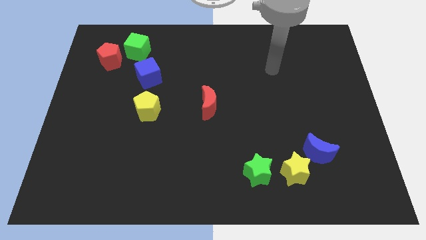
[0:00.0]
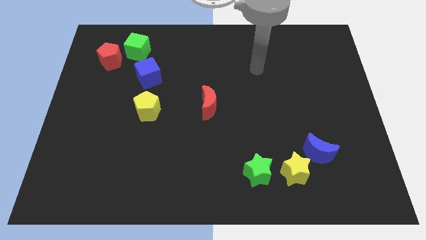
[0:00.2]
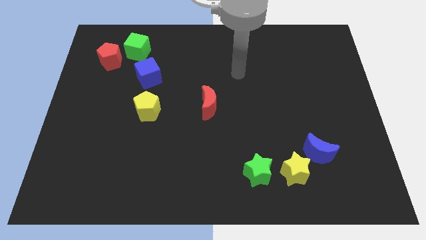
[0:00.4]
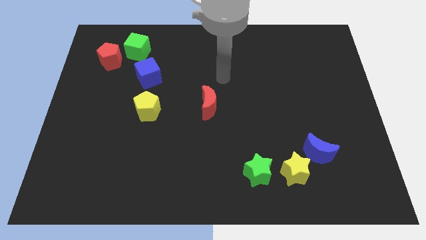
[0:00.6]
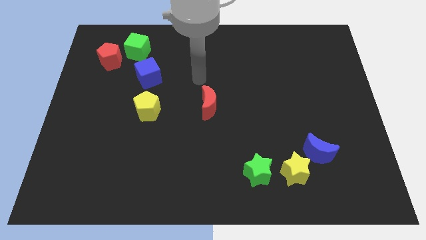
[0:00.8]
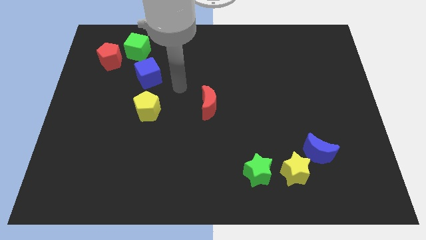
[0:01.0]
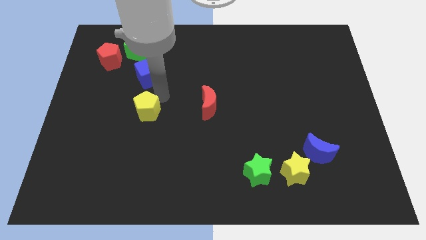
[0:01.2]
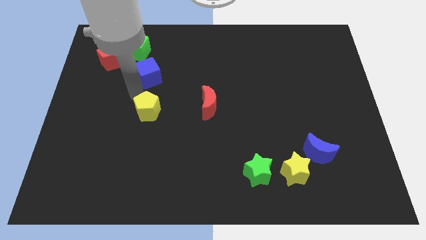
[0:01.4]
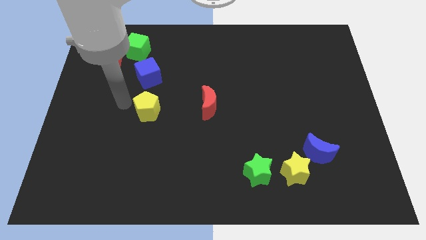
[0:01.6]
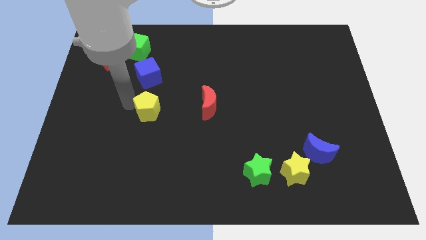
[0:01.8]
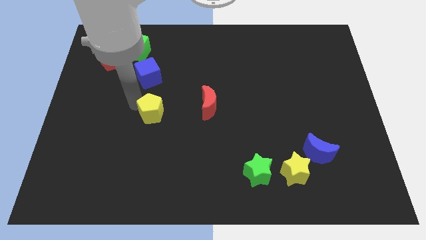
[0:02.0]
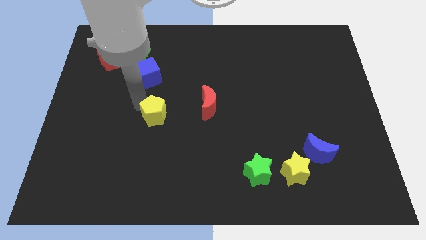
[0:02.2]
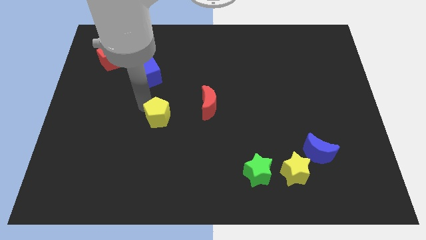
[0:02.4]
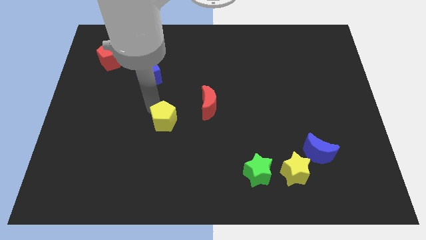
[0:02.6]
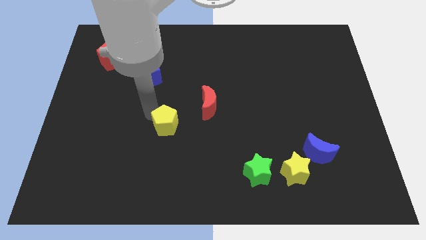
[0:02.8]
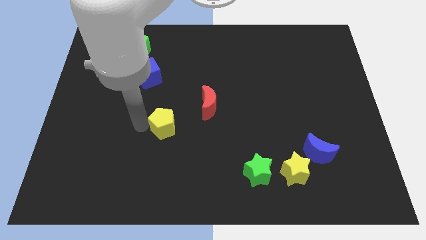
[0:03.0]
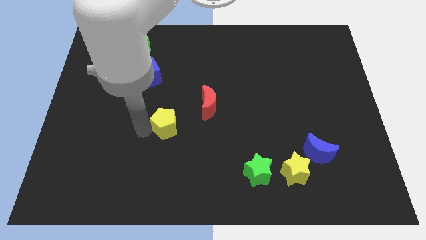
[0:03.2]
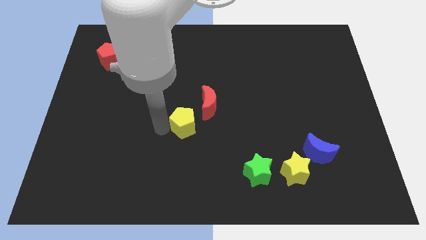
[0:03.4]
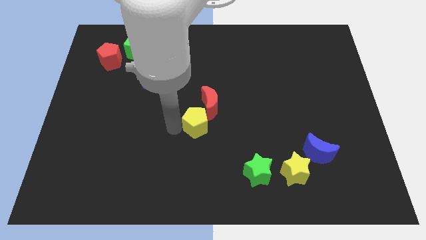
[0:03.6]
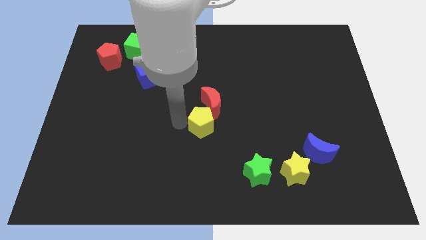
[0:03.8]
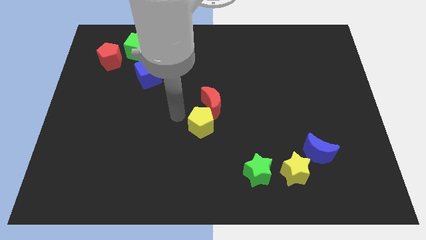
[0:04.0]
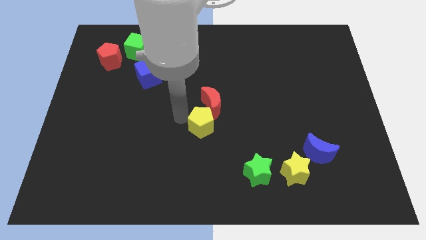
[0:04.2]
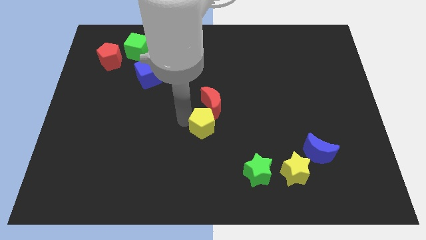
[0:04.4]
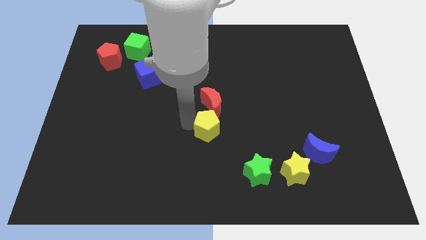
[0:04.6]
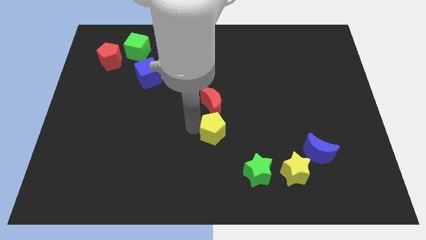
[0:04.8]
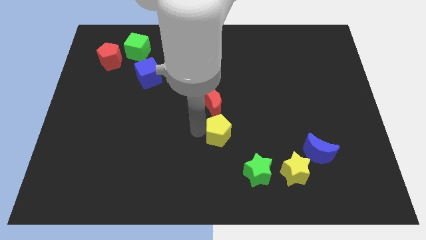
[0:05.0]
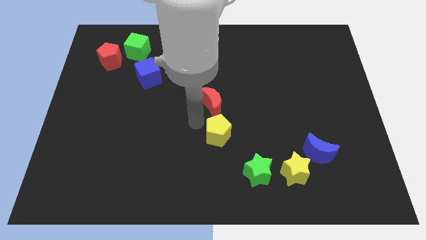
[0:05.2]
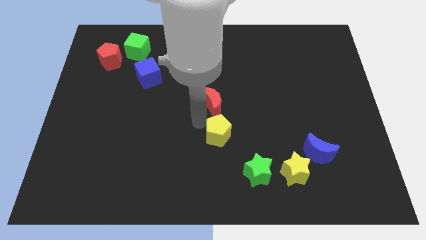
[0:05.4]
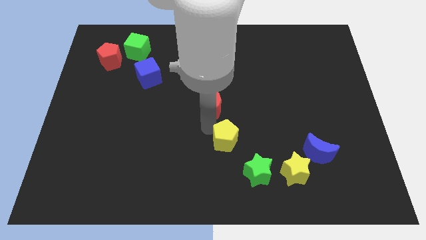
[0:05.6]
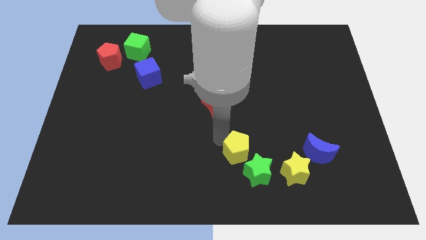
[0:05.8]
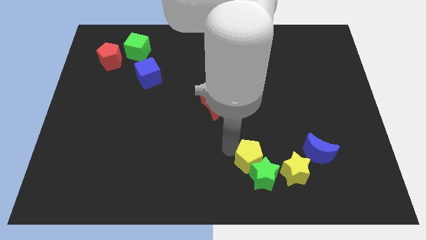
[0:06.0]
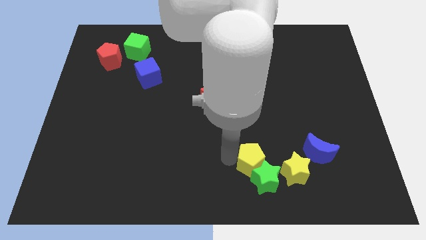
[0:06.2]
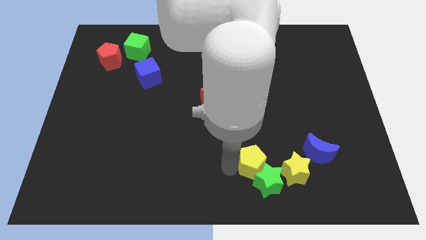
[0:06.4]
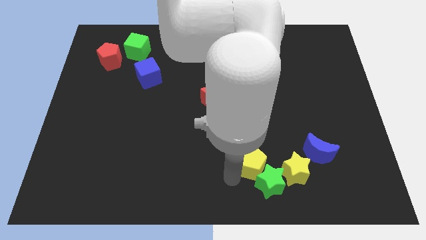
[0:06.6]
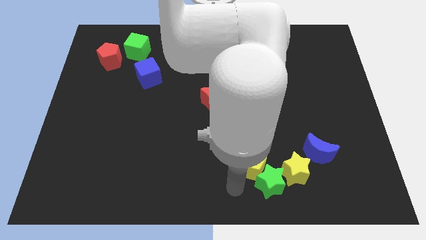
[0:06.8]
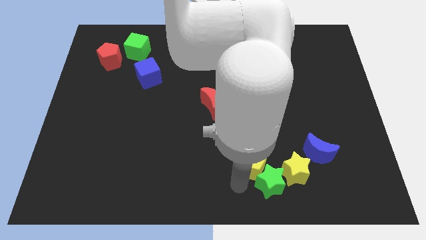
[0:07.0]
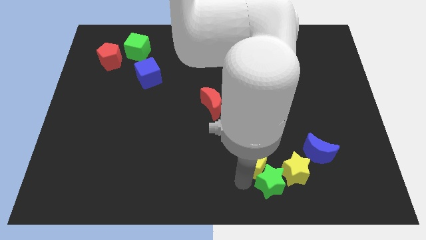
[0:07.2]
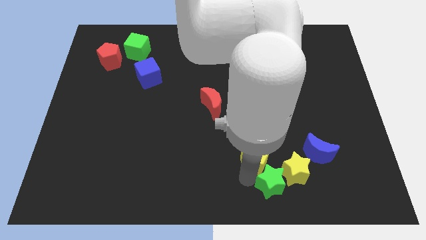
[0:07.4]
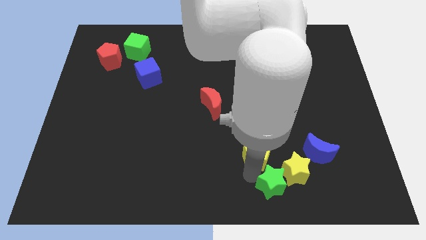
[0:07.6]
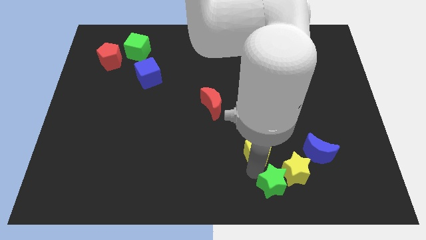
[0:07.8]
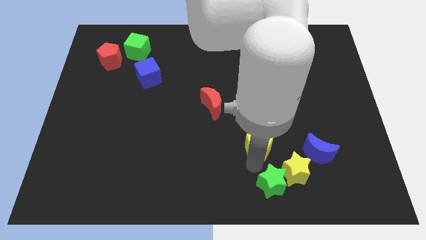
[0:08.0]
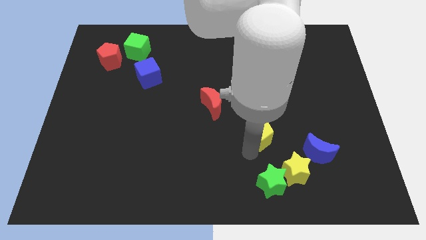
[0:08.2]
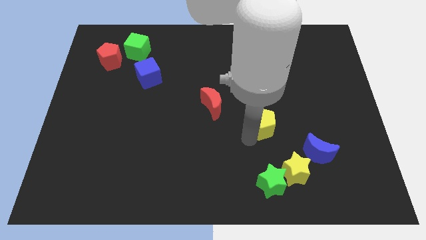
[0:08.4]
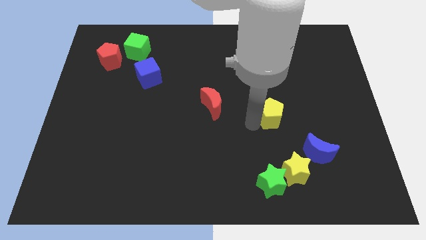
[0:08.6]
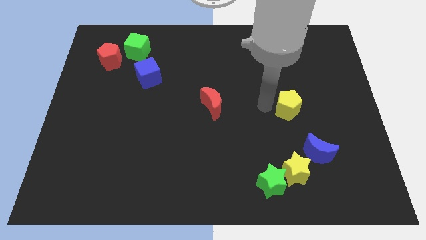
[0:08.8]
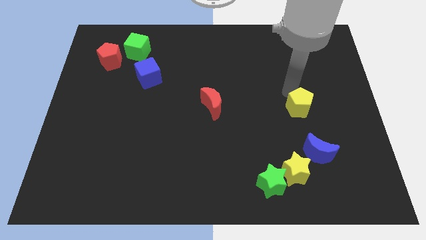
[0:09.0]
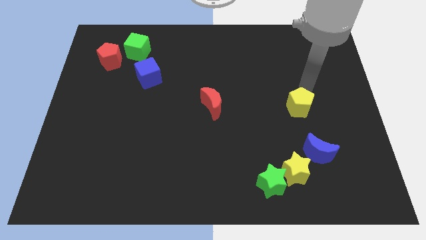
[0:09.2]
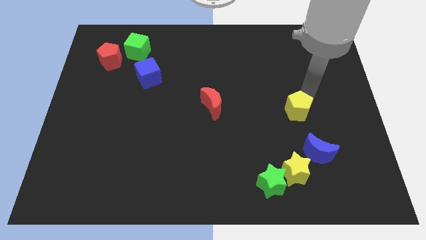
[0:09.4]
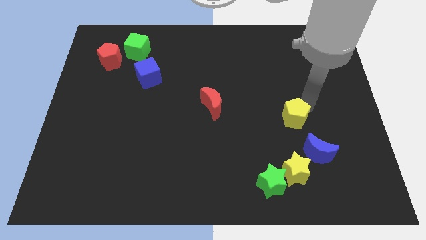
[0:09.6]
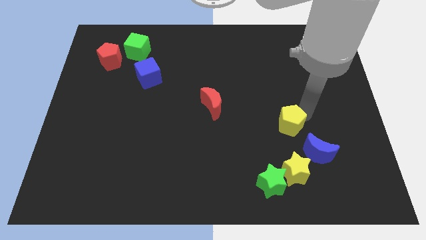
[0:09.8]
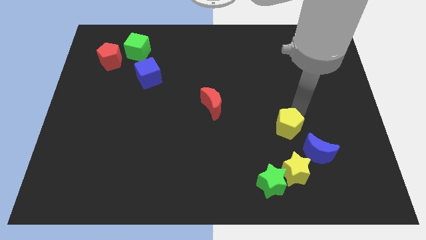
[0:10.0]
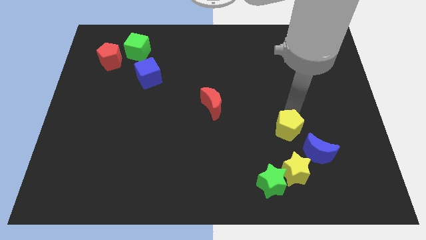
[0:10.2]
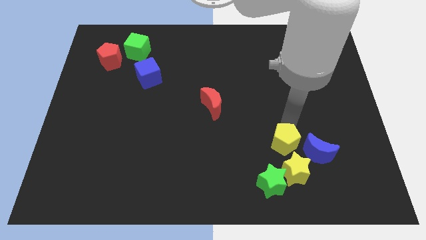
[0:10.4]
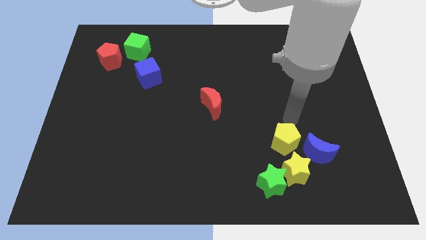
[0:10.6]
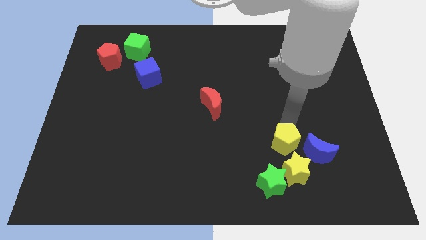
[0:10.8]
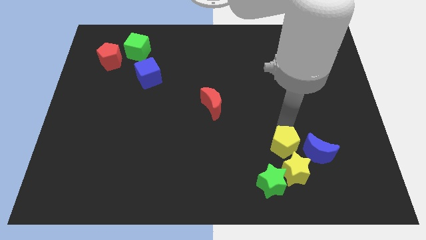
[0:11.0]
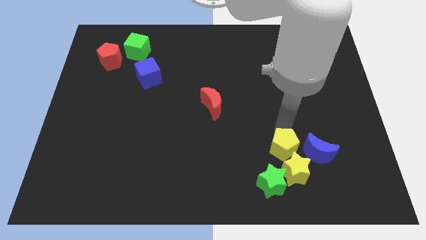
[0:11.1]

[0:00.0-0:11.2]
slide the yellow pentagon towards the yellow star

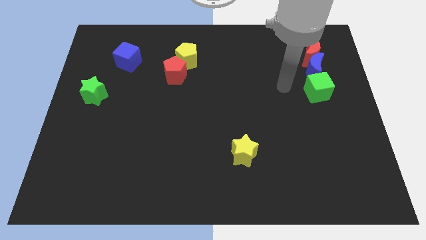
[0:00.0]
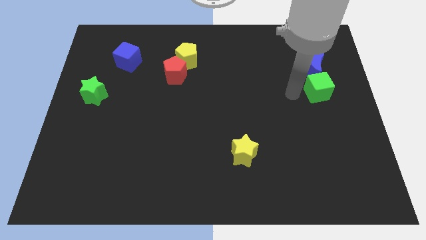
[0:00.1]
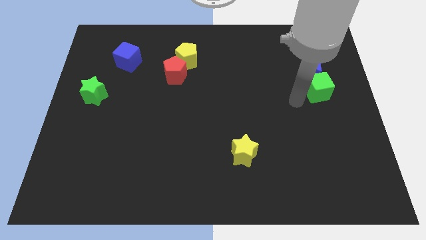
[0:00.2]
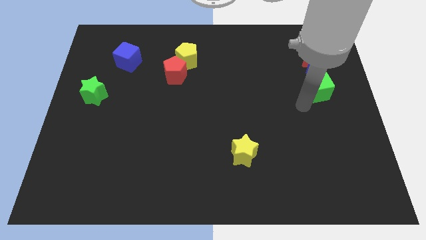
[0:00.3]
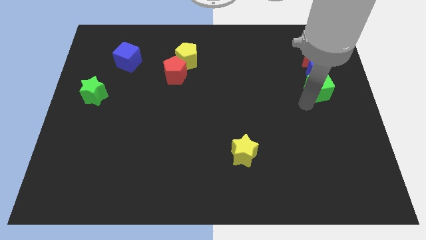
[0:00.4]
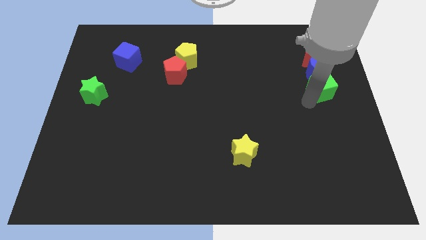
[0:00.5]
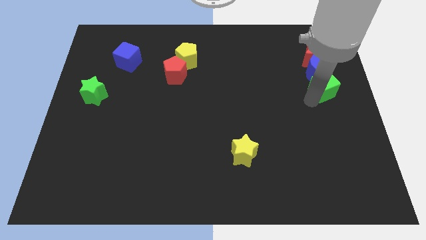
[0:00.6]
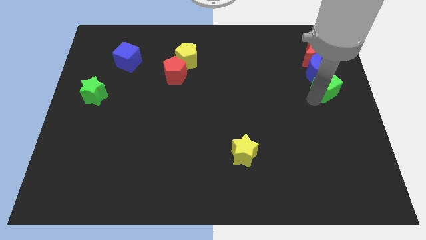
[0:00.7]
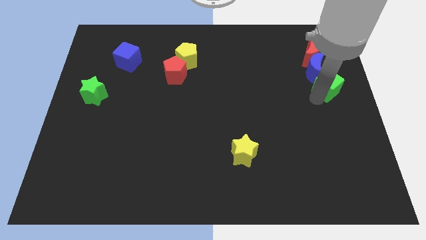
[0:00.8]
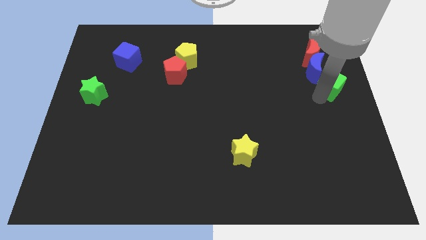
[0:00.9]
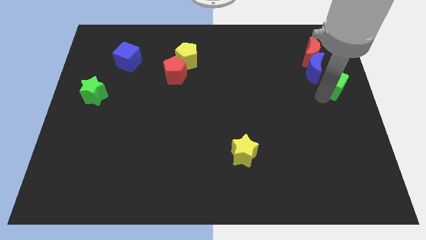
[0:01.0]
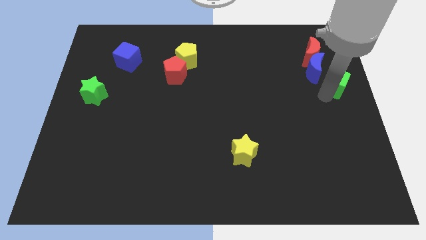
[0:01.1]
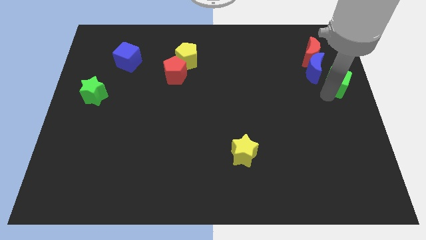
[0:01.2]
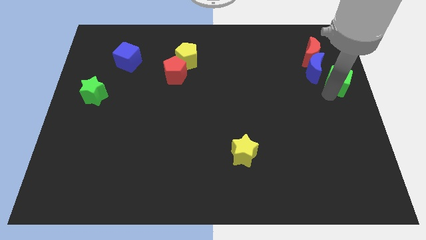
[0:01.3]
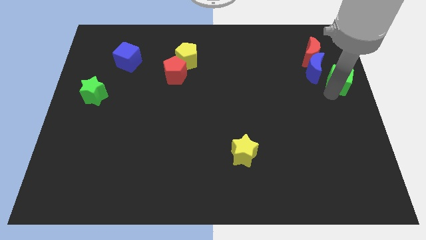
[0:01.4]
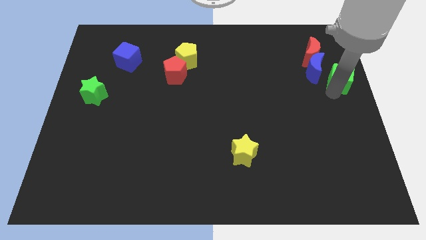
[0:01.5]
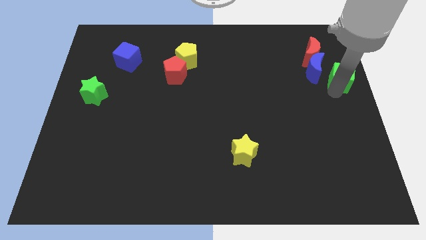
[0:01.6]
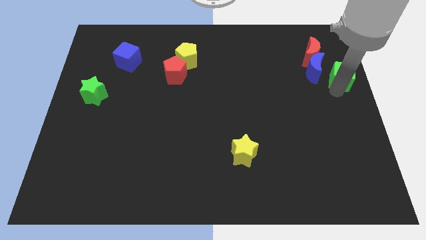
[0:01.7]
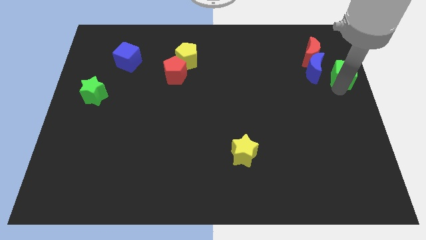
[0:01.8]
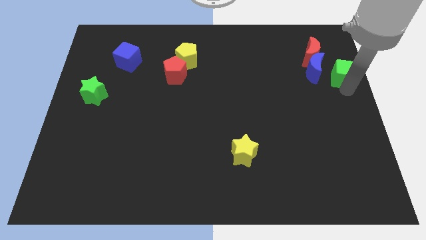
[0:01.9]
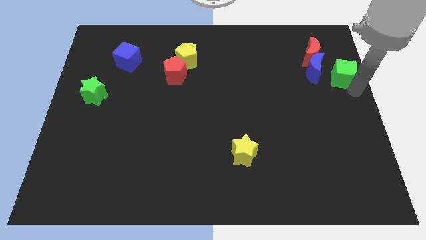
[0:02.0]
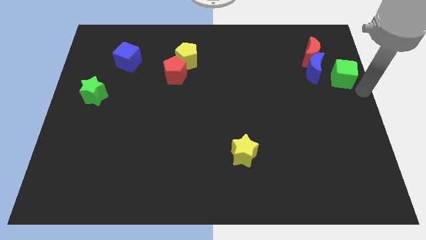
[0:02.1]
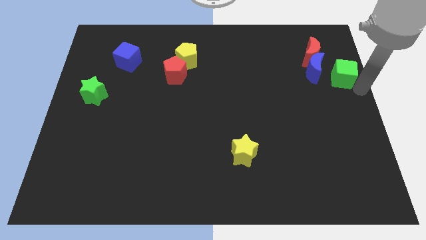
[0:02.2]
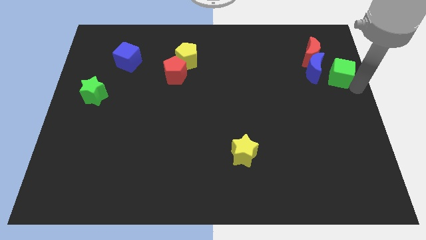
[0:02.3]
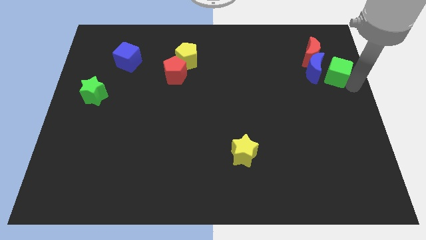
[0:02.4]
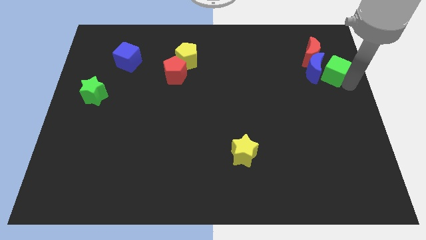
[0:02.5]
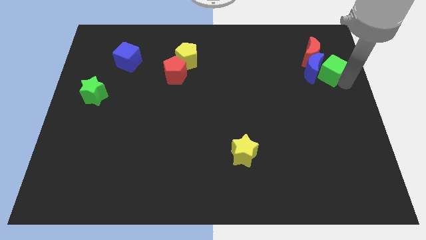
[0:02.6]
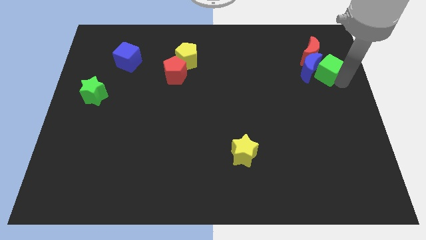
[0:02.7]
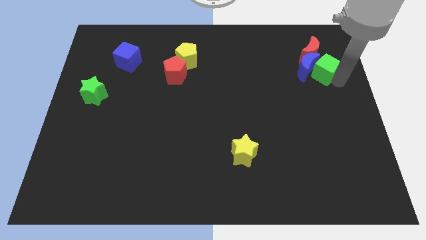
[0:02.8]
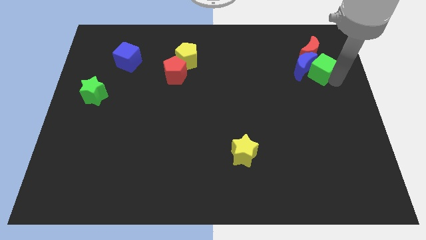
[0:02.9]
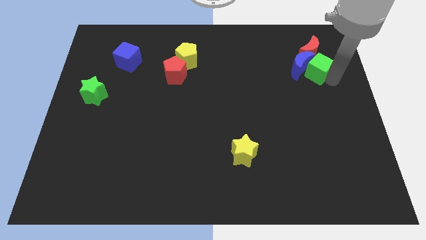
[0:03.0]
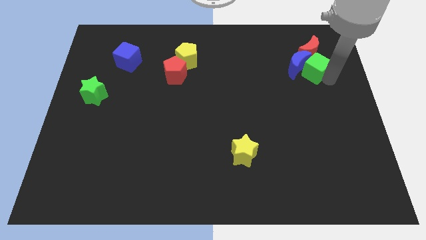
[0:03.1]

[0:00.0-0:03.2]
push the green cube close to the red moon
